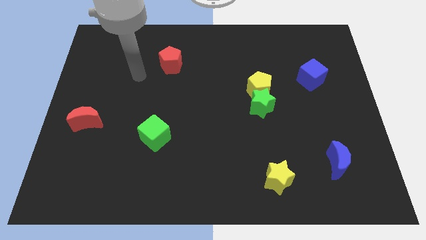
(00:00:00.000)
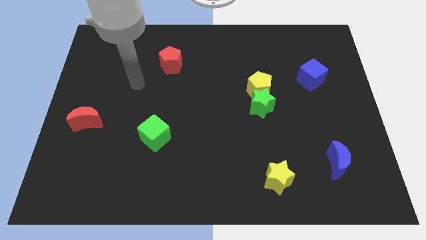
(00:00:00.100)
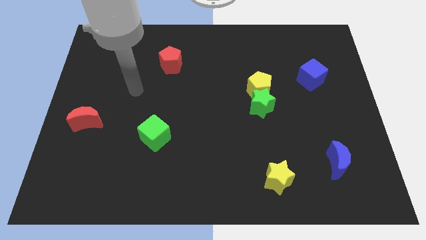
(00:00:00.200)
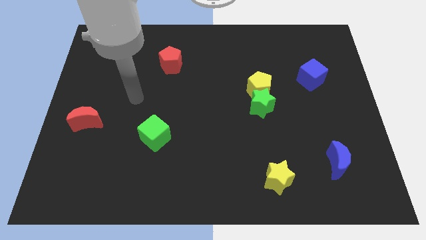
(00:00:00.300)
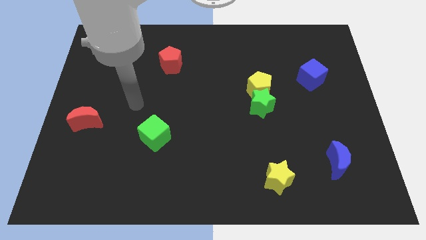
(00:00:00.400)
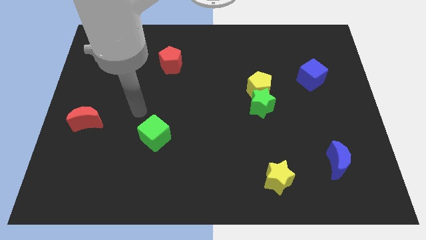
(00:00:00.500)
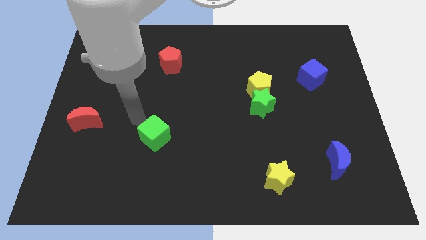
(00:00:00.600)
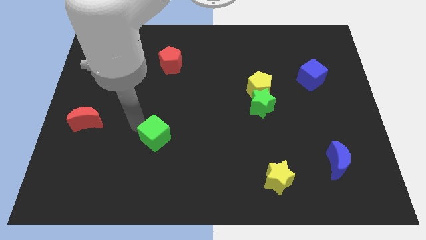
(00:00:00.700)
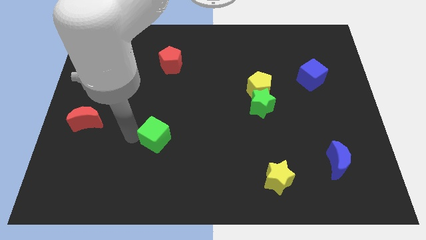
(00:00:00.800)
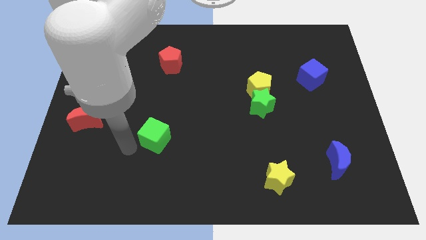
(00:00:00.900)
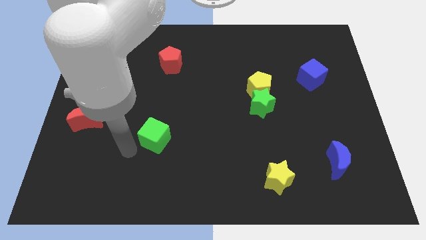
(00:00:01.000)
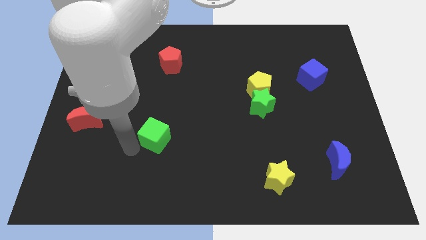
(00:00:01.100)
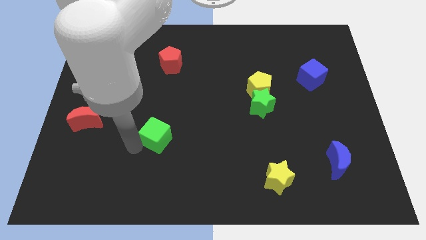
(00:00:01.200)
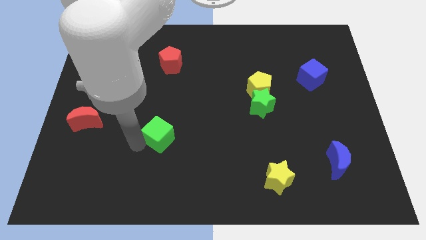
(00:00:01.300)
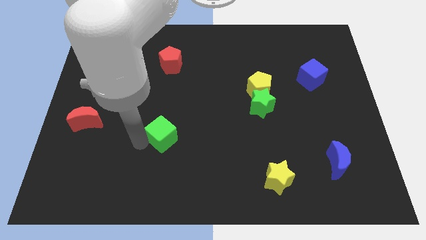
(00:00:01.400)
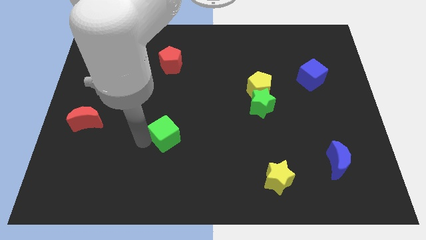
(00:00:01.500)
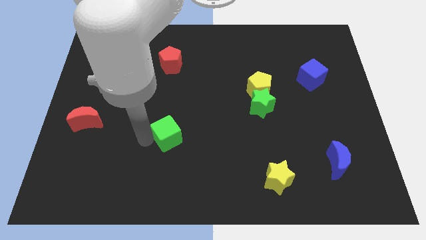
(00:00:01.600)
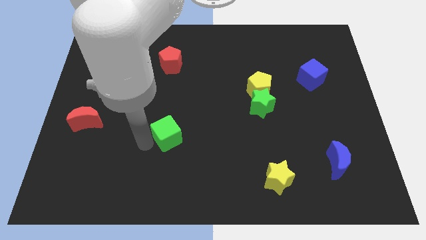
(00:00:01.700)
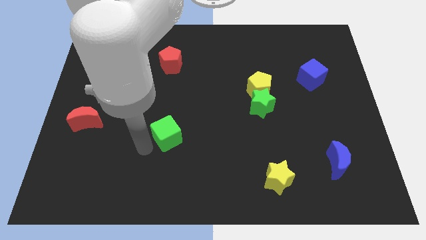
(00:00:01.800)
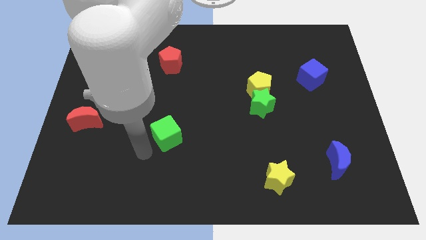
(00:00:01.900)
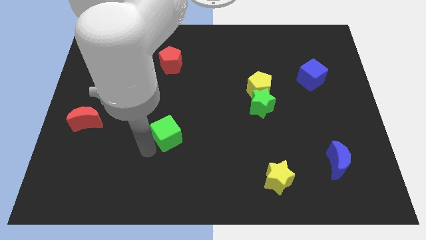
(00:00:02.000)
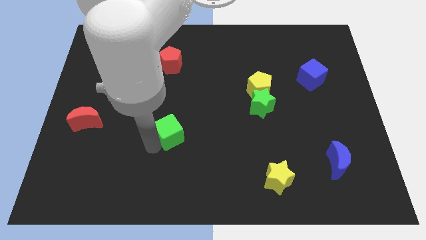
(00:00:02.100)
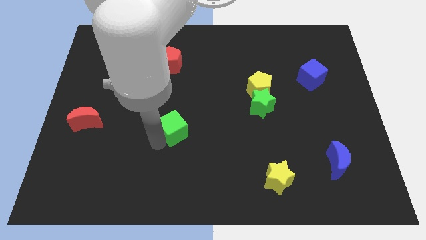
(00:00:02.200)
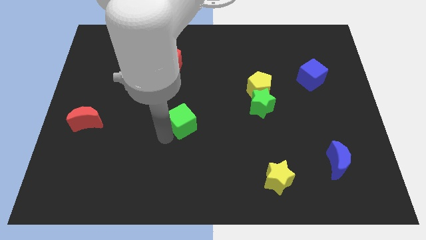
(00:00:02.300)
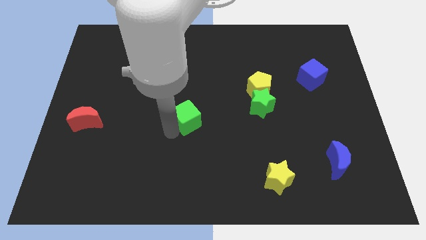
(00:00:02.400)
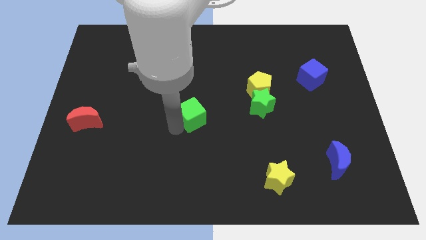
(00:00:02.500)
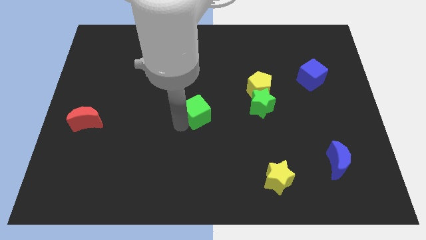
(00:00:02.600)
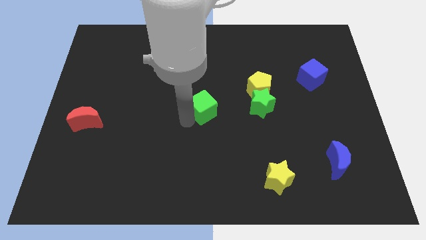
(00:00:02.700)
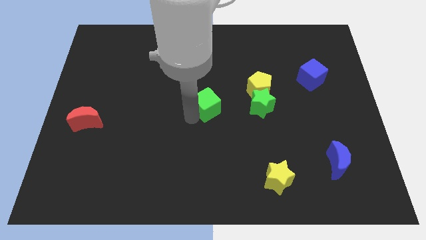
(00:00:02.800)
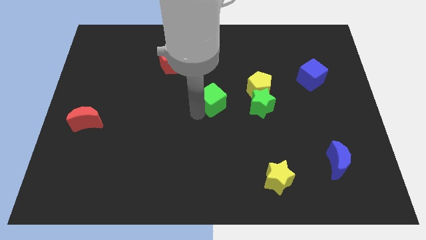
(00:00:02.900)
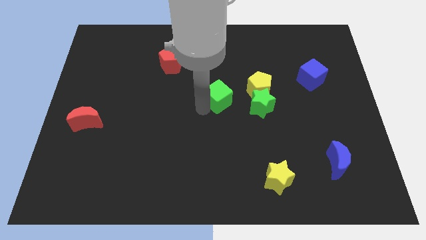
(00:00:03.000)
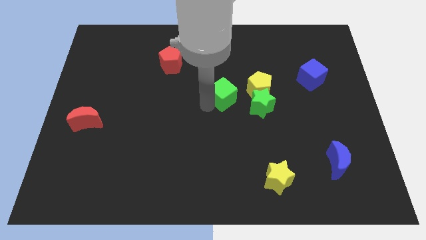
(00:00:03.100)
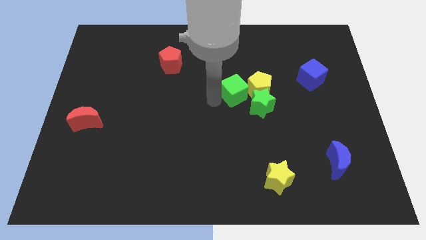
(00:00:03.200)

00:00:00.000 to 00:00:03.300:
slide the green cube close to the yellow pentagon

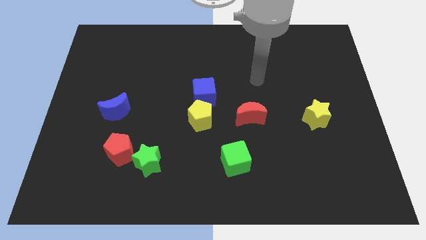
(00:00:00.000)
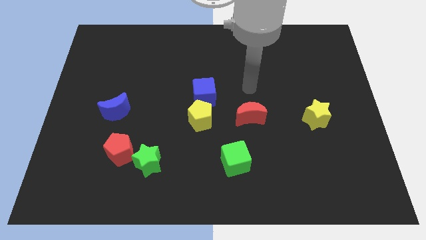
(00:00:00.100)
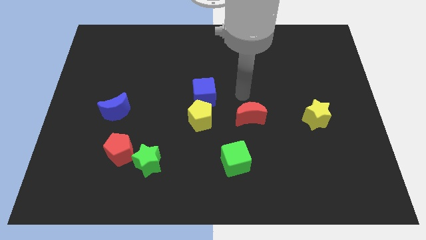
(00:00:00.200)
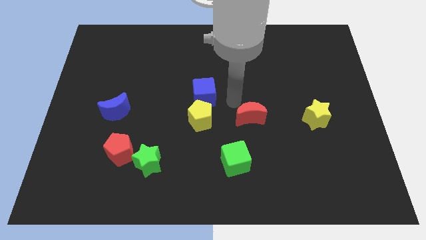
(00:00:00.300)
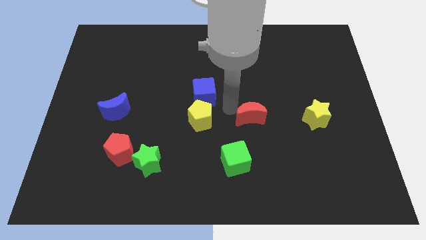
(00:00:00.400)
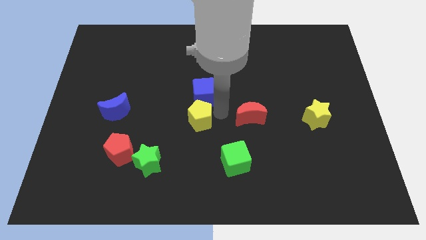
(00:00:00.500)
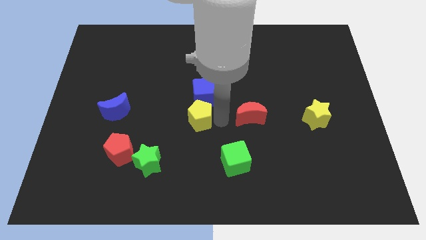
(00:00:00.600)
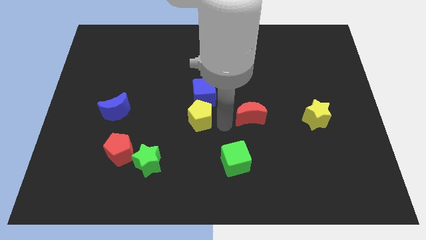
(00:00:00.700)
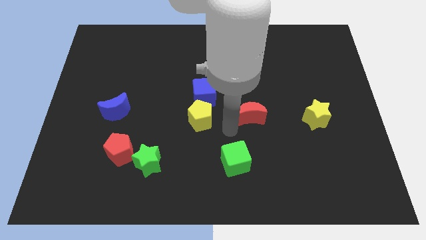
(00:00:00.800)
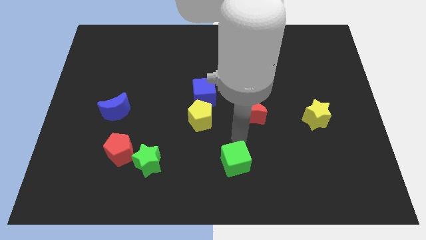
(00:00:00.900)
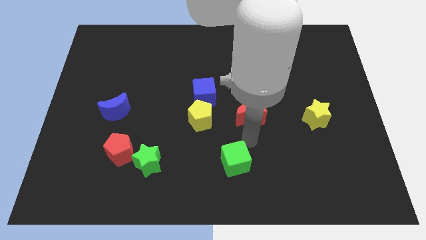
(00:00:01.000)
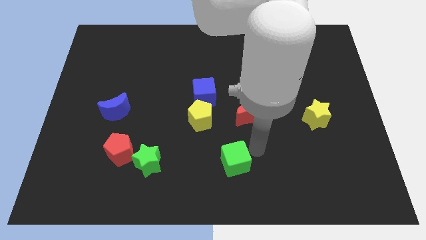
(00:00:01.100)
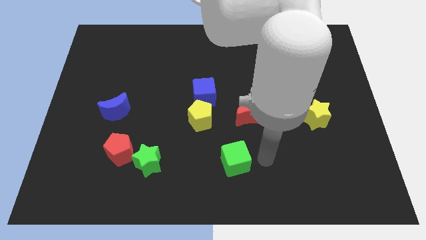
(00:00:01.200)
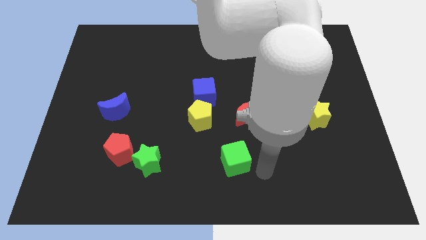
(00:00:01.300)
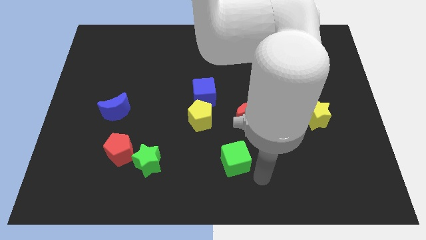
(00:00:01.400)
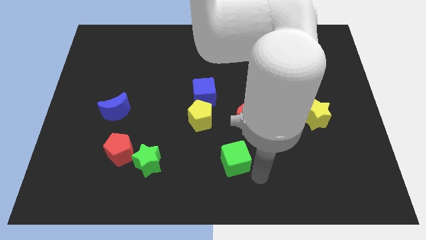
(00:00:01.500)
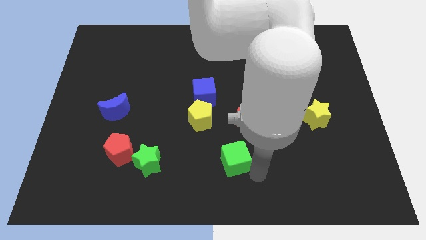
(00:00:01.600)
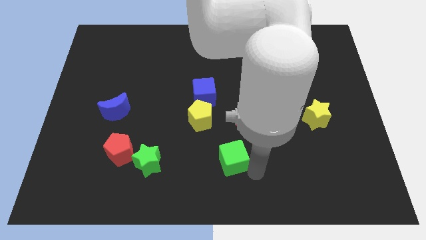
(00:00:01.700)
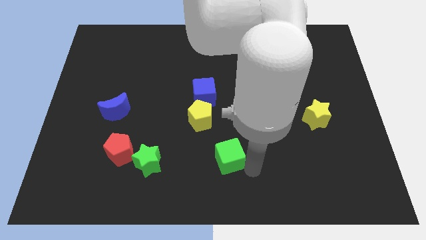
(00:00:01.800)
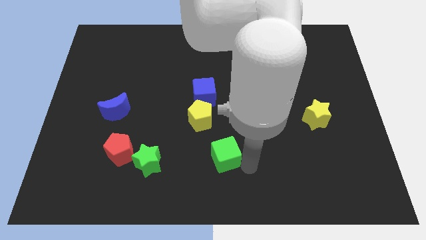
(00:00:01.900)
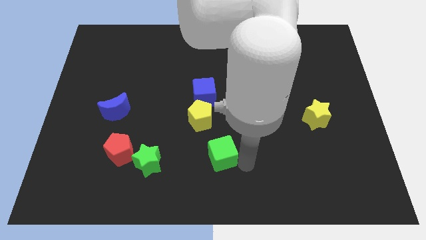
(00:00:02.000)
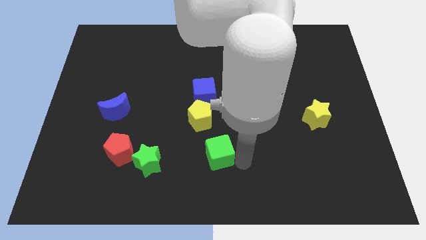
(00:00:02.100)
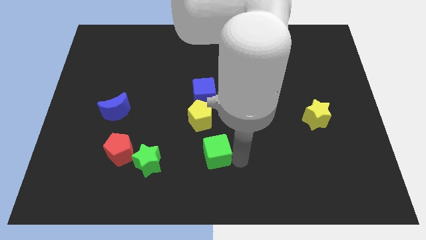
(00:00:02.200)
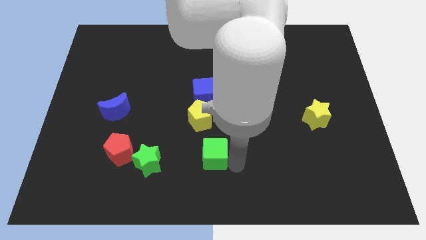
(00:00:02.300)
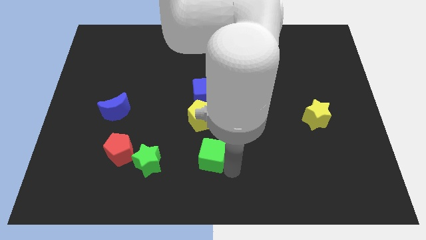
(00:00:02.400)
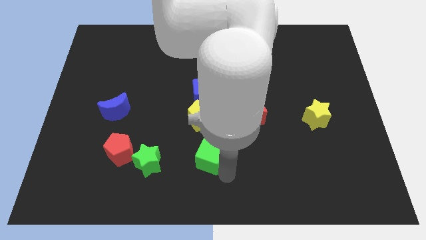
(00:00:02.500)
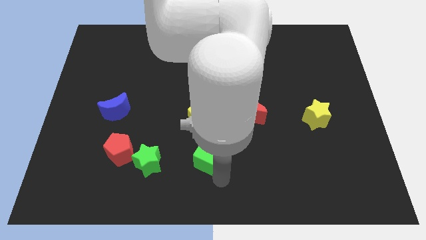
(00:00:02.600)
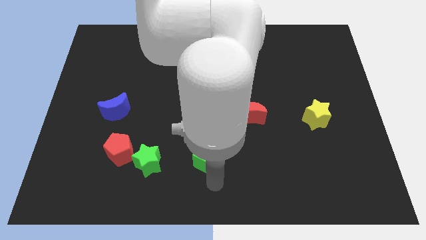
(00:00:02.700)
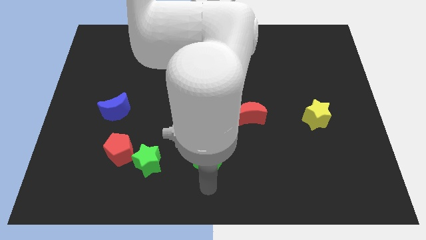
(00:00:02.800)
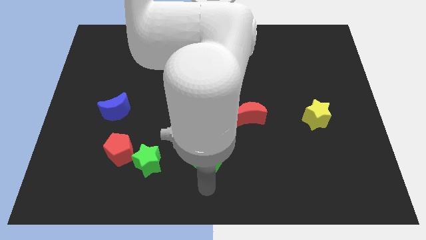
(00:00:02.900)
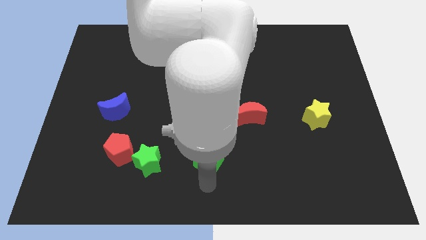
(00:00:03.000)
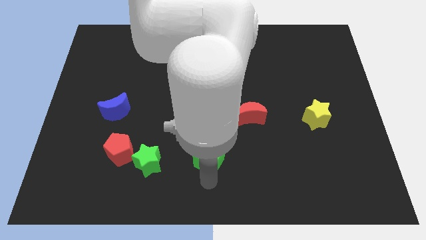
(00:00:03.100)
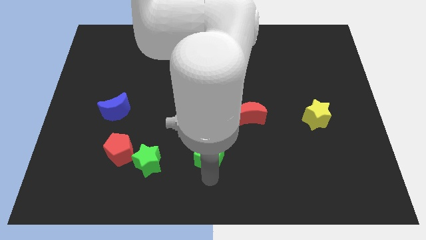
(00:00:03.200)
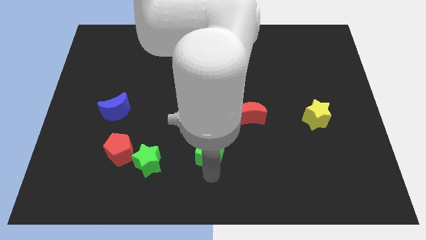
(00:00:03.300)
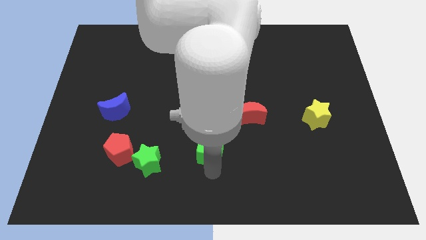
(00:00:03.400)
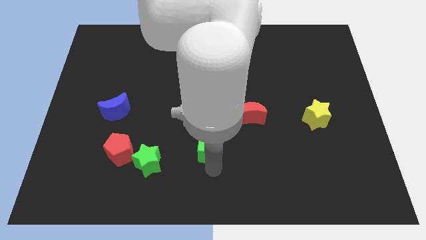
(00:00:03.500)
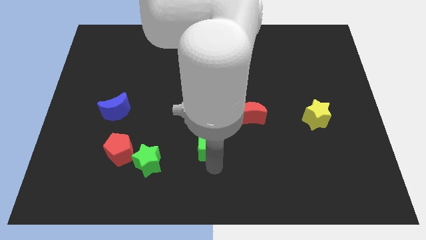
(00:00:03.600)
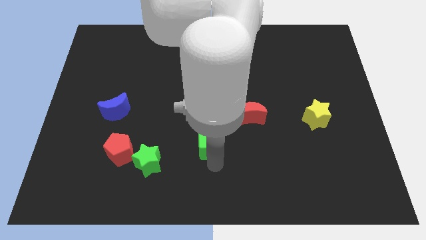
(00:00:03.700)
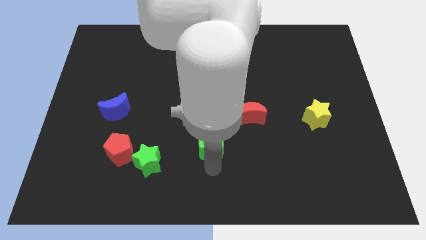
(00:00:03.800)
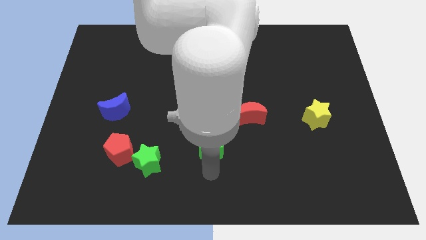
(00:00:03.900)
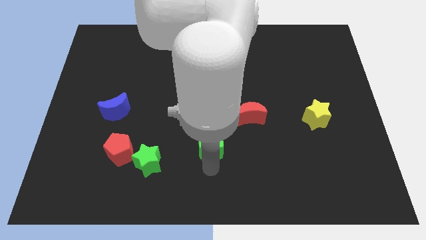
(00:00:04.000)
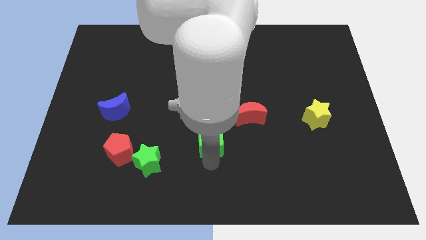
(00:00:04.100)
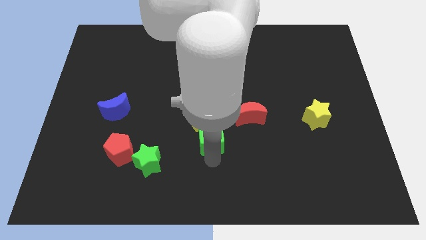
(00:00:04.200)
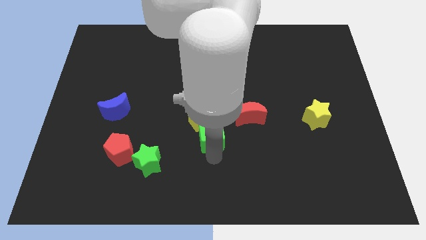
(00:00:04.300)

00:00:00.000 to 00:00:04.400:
put the green cube to the yellow pentagon

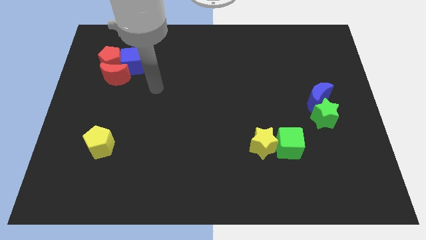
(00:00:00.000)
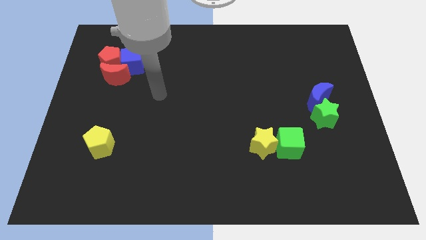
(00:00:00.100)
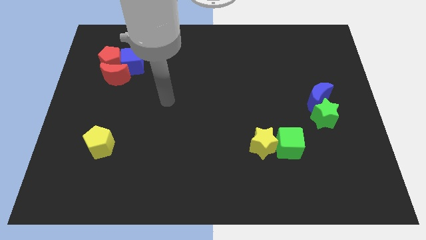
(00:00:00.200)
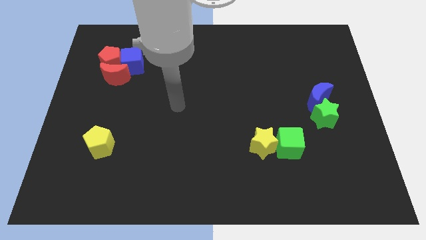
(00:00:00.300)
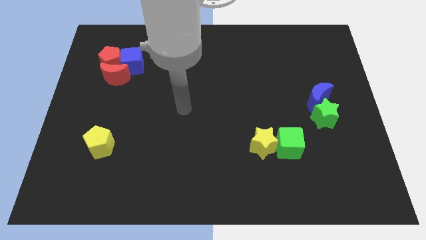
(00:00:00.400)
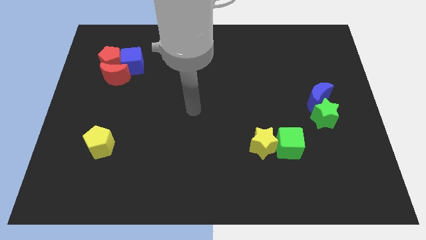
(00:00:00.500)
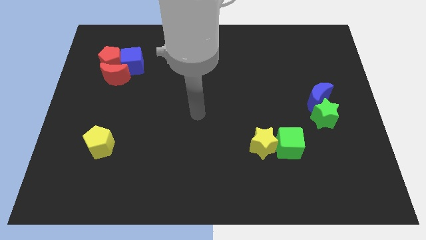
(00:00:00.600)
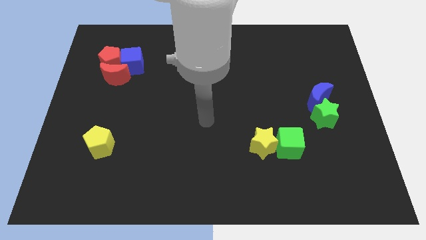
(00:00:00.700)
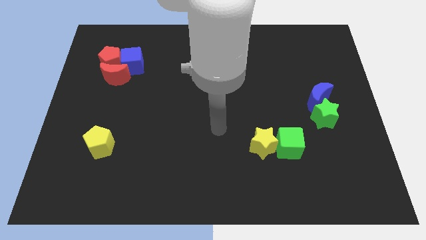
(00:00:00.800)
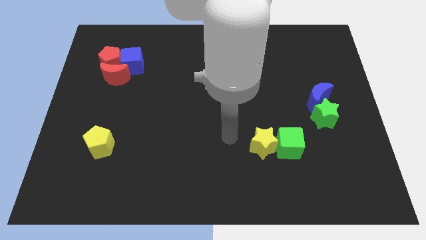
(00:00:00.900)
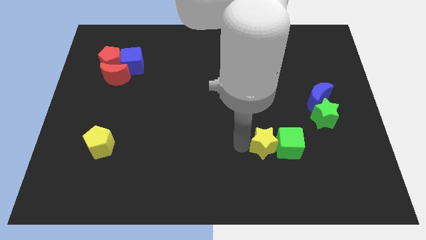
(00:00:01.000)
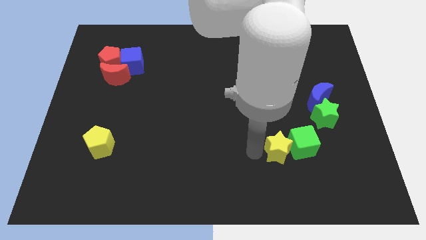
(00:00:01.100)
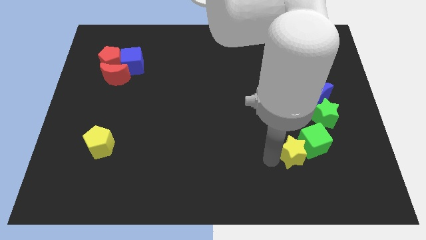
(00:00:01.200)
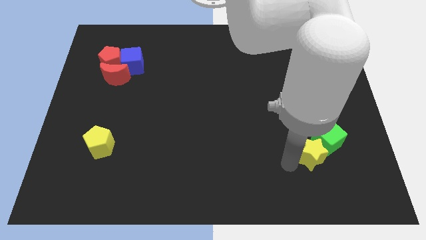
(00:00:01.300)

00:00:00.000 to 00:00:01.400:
push the green cube towards the green star
